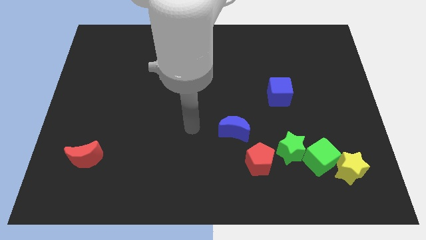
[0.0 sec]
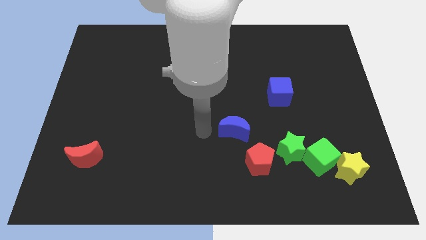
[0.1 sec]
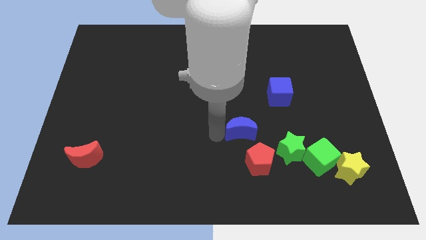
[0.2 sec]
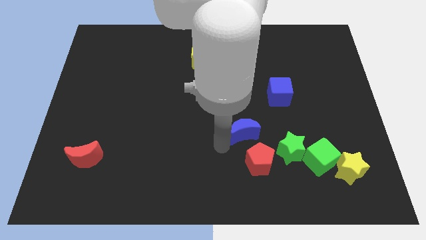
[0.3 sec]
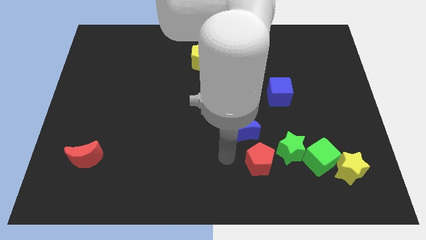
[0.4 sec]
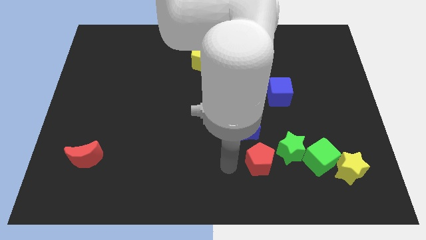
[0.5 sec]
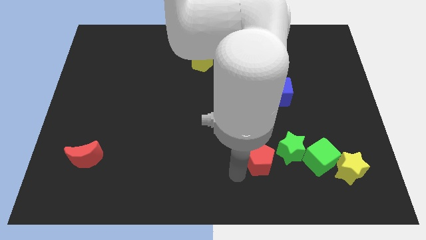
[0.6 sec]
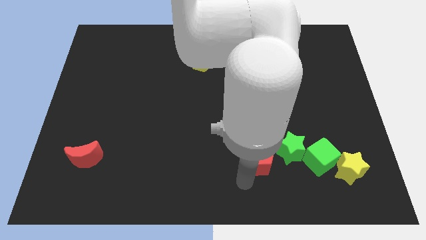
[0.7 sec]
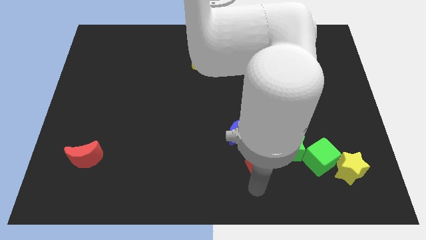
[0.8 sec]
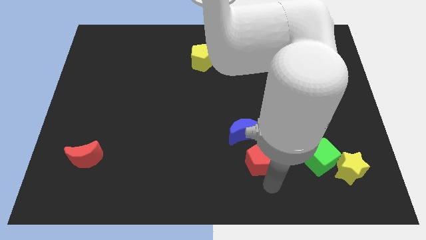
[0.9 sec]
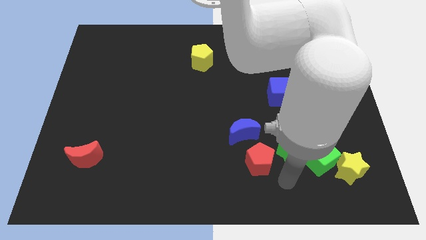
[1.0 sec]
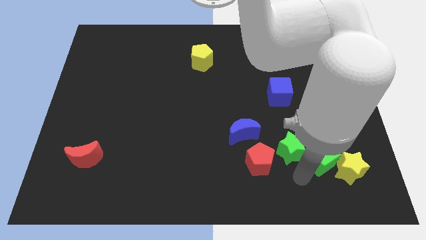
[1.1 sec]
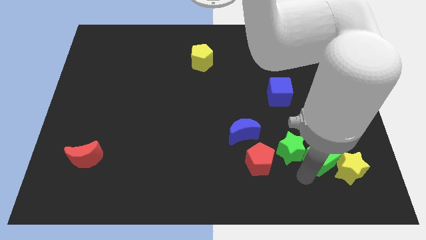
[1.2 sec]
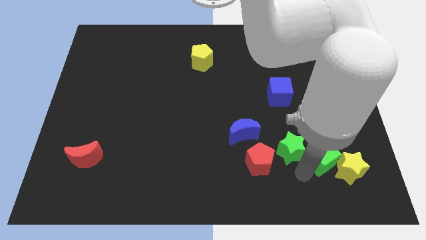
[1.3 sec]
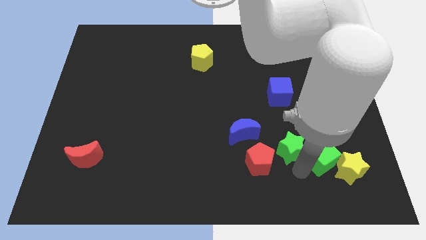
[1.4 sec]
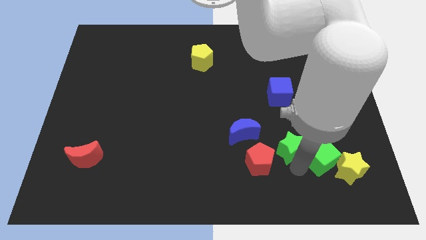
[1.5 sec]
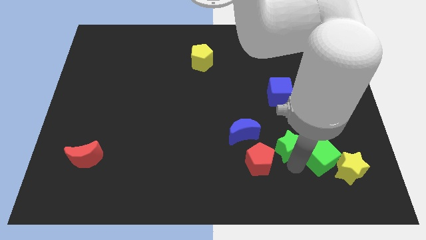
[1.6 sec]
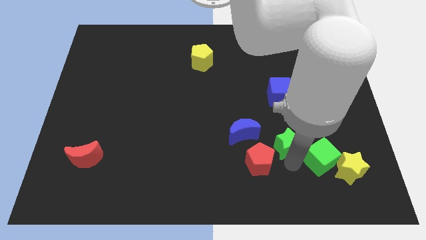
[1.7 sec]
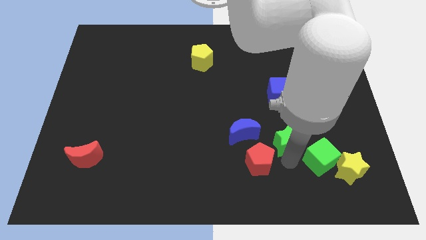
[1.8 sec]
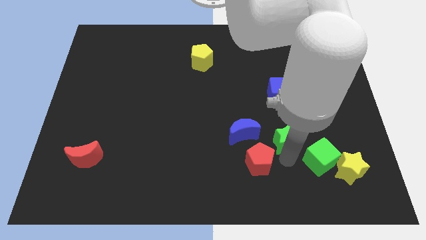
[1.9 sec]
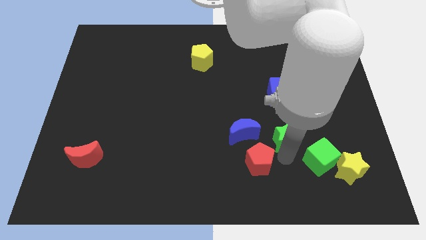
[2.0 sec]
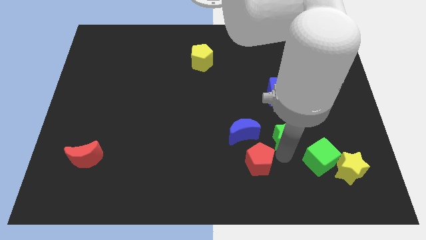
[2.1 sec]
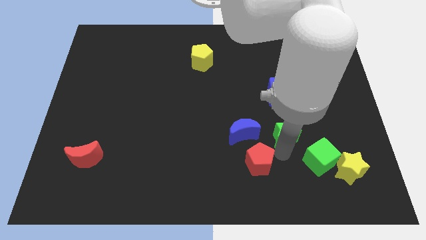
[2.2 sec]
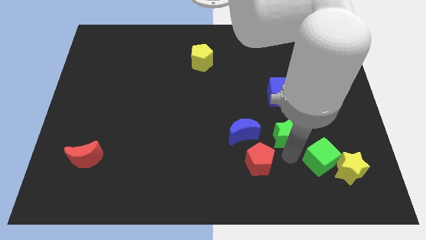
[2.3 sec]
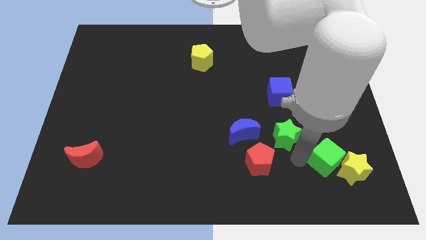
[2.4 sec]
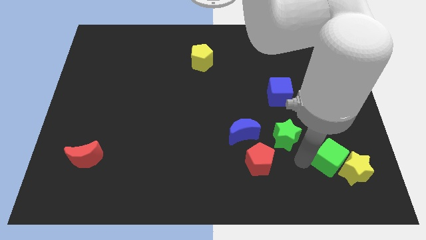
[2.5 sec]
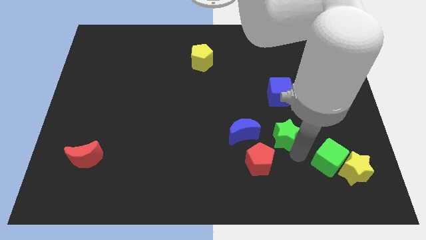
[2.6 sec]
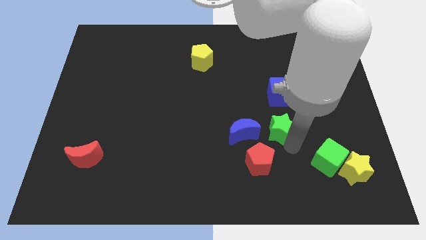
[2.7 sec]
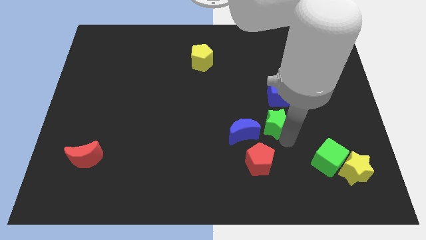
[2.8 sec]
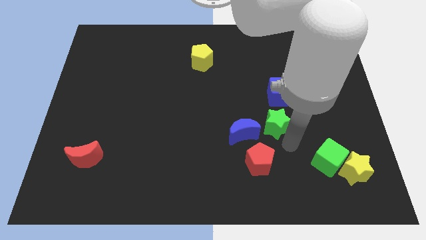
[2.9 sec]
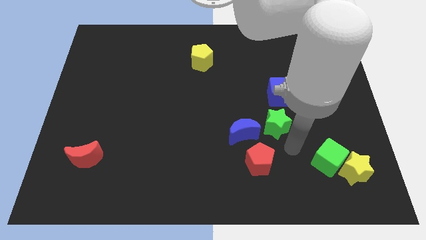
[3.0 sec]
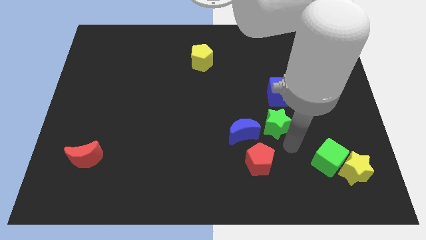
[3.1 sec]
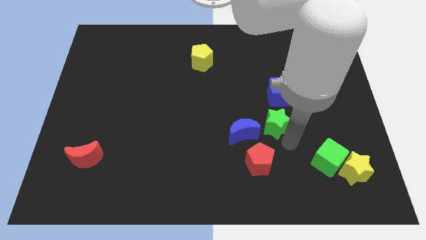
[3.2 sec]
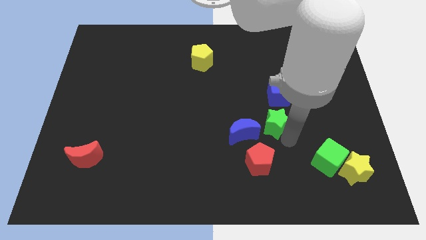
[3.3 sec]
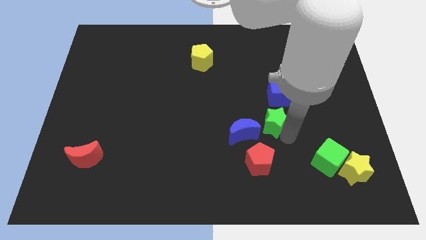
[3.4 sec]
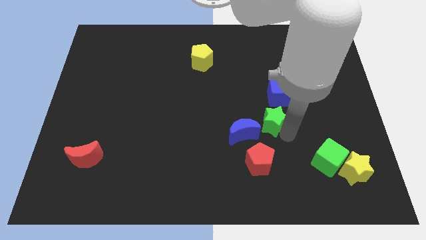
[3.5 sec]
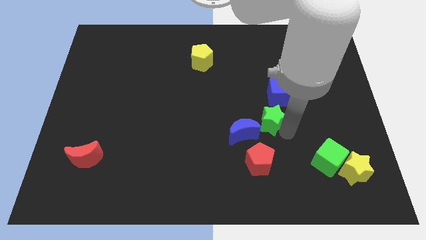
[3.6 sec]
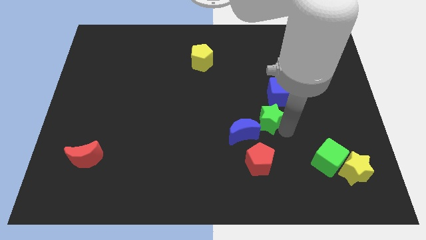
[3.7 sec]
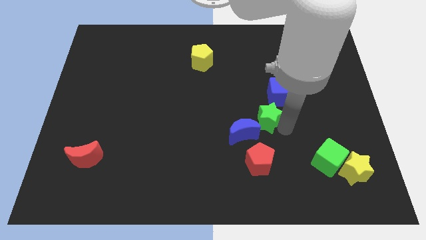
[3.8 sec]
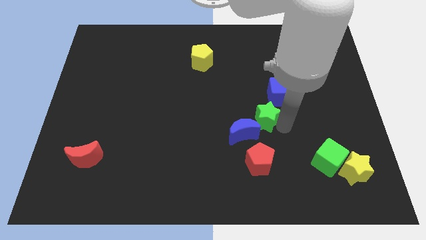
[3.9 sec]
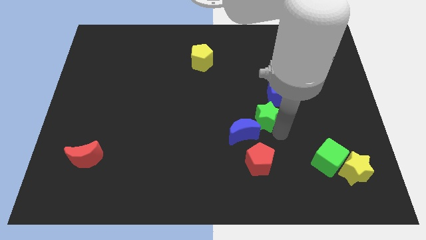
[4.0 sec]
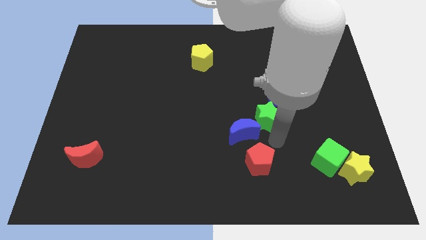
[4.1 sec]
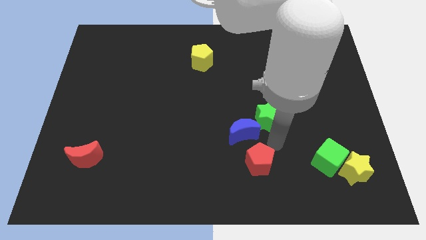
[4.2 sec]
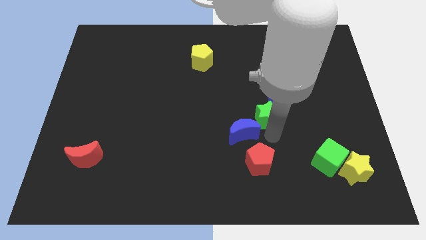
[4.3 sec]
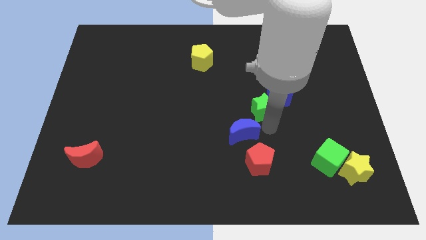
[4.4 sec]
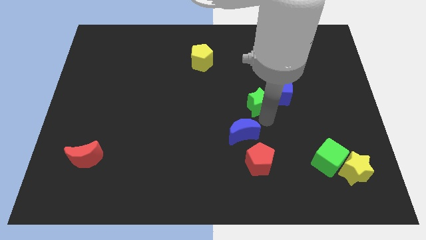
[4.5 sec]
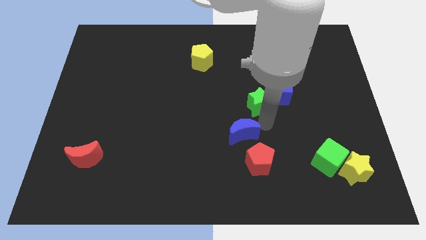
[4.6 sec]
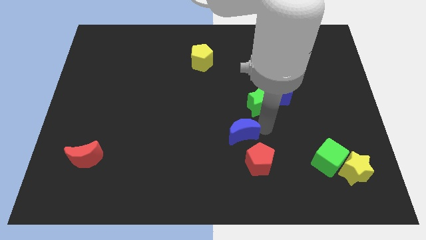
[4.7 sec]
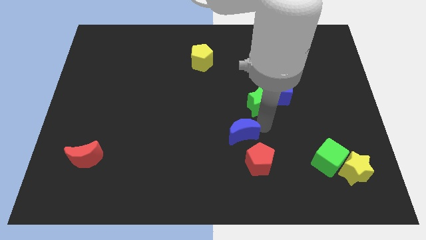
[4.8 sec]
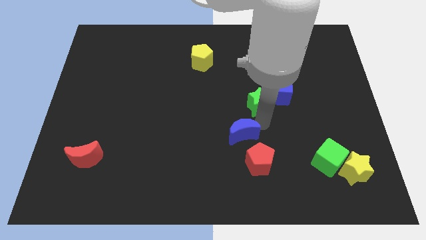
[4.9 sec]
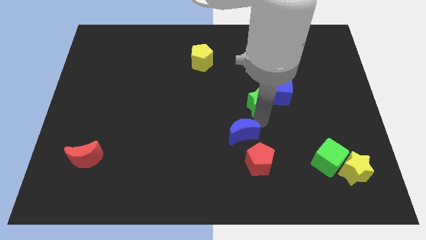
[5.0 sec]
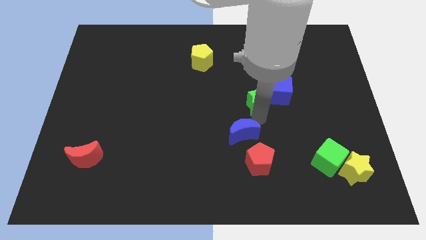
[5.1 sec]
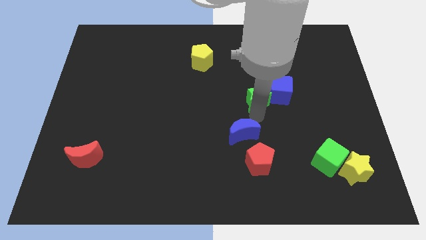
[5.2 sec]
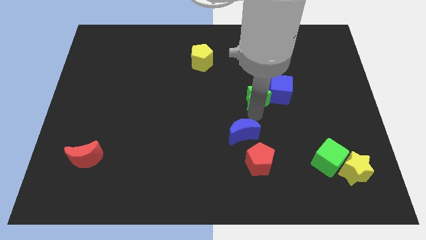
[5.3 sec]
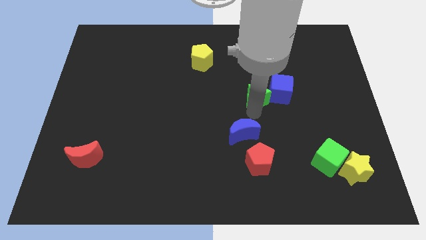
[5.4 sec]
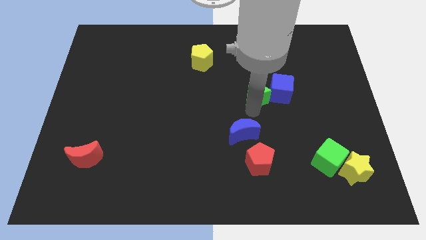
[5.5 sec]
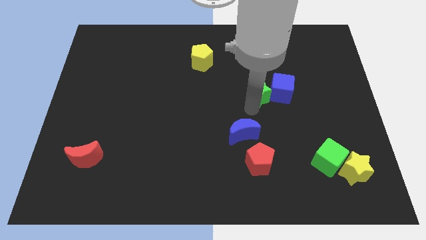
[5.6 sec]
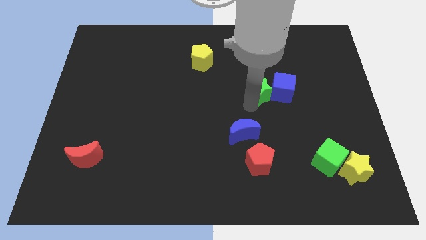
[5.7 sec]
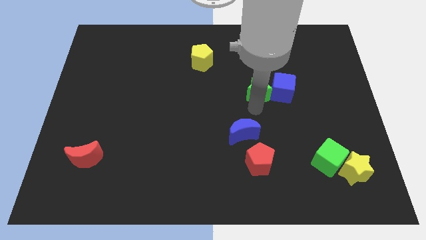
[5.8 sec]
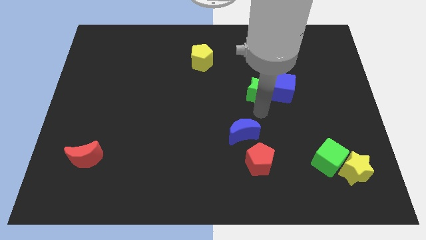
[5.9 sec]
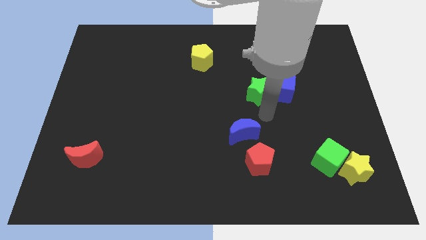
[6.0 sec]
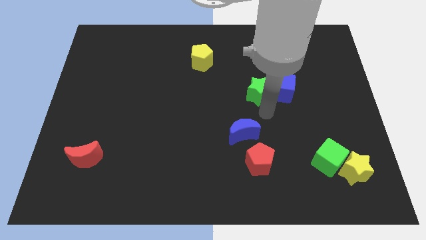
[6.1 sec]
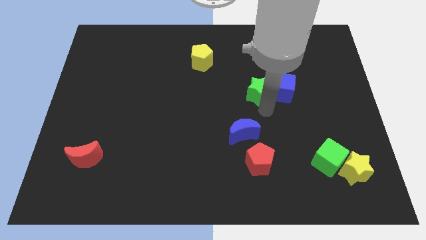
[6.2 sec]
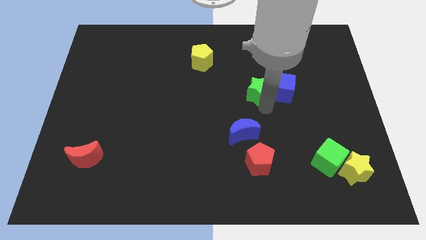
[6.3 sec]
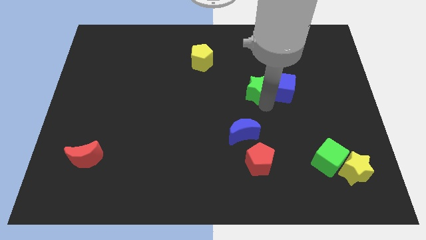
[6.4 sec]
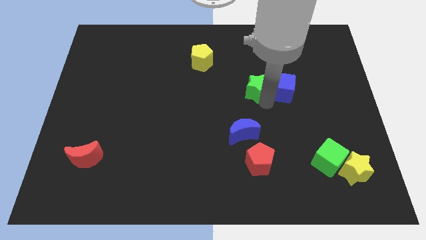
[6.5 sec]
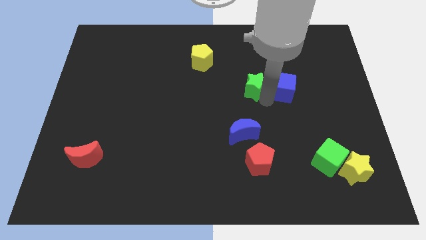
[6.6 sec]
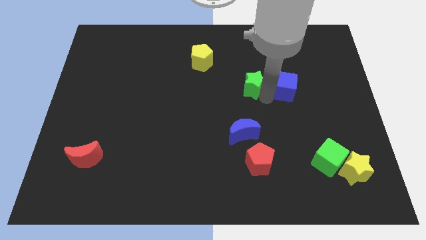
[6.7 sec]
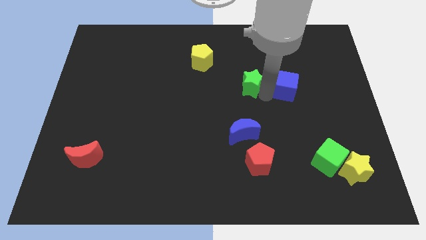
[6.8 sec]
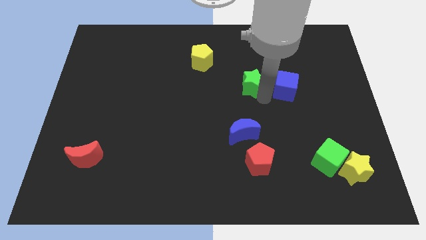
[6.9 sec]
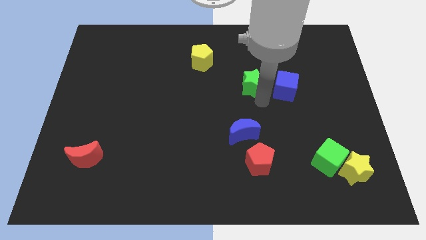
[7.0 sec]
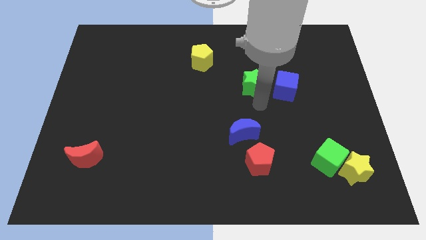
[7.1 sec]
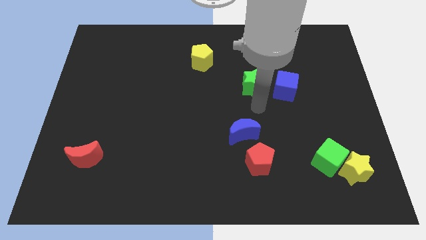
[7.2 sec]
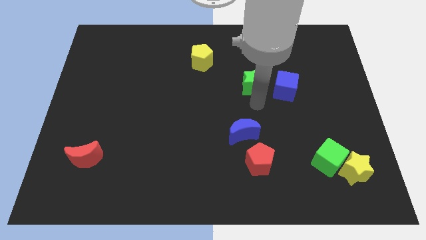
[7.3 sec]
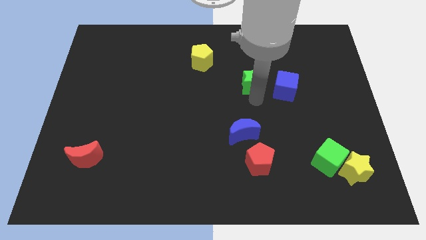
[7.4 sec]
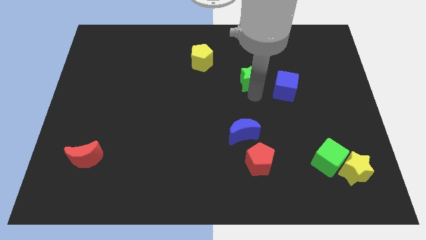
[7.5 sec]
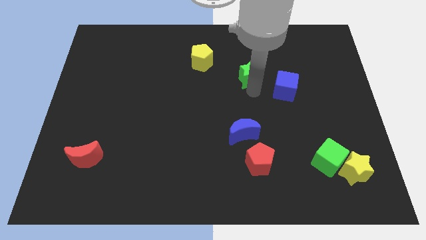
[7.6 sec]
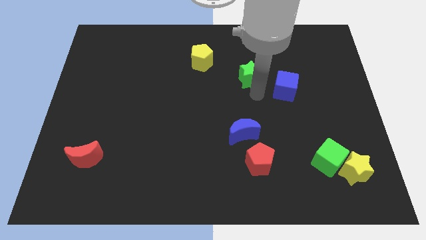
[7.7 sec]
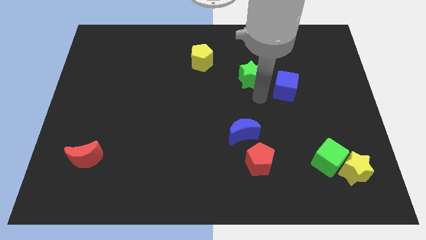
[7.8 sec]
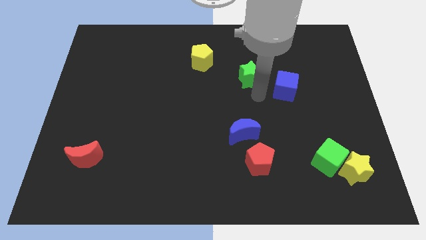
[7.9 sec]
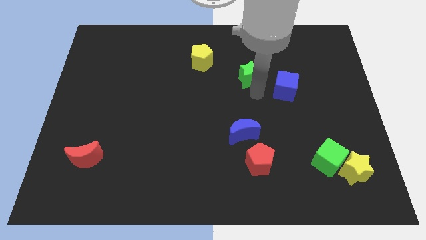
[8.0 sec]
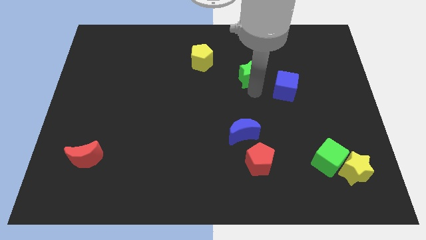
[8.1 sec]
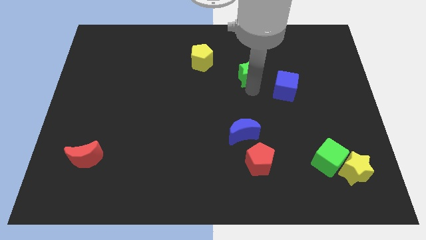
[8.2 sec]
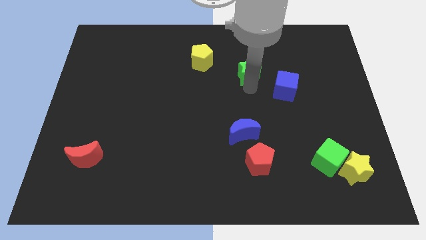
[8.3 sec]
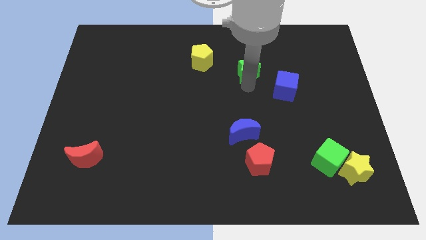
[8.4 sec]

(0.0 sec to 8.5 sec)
push the green star to the right of the yellow pentagon
